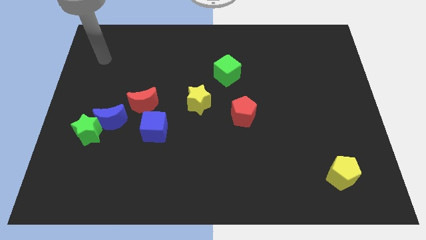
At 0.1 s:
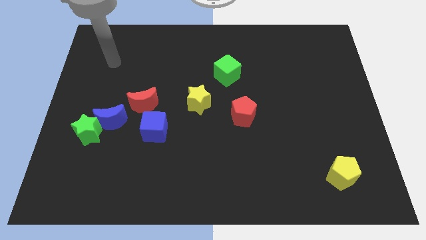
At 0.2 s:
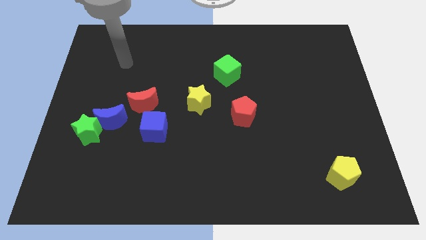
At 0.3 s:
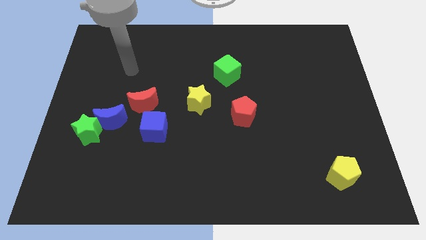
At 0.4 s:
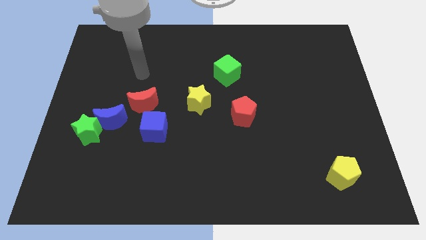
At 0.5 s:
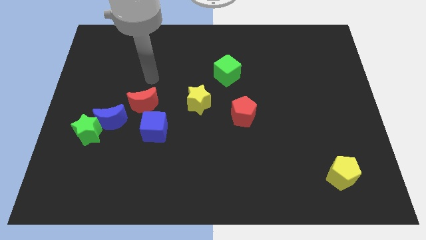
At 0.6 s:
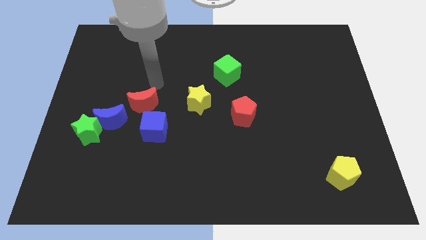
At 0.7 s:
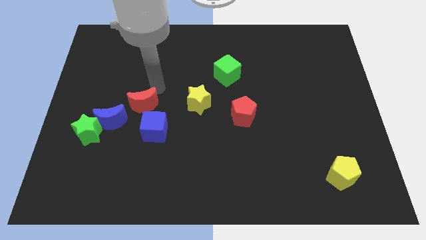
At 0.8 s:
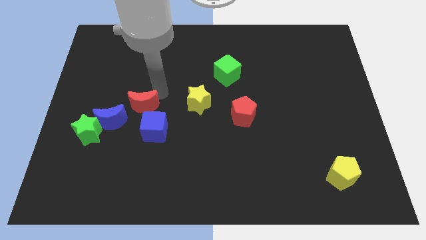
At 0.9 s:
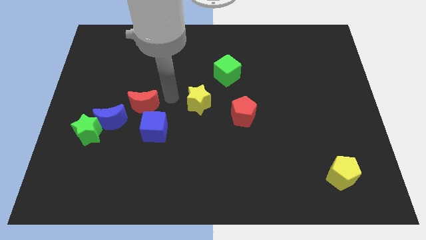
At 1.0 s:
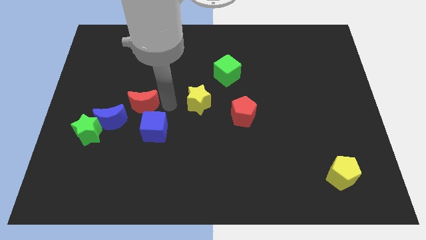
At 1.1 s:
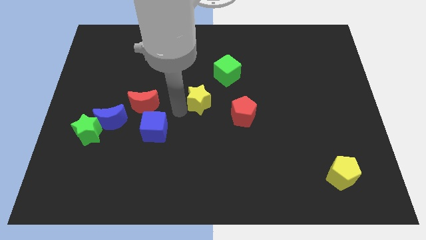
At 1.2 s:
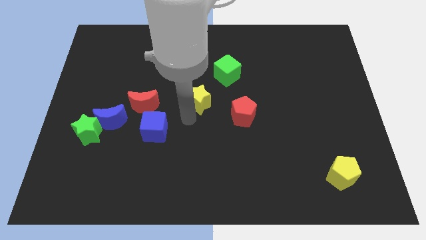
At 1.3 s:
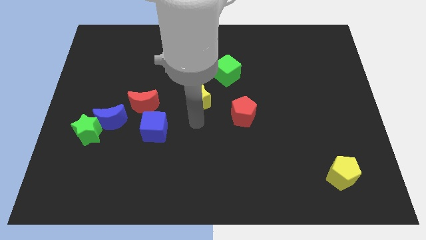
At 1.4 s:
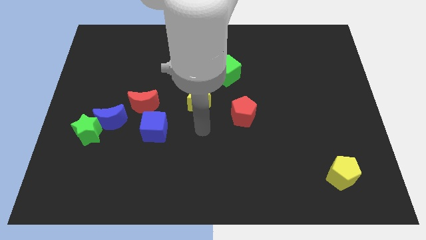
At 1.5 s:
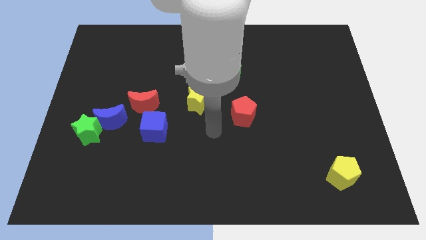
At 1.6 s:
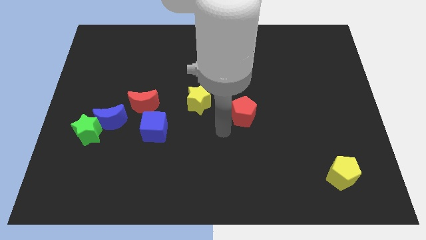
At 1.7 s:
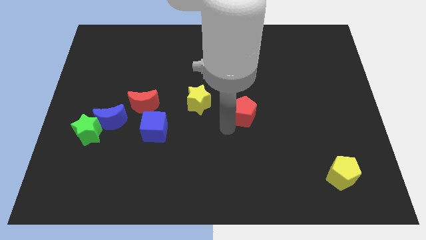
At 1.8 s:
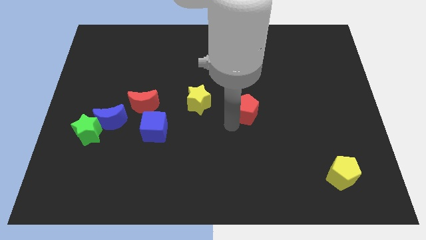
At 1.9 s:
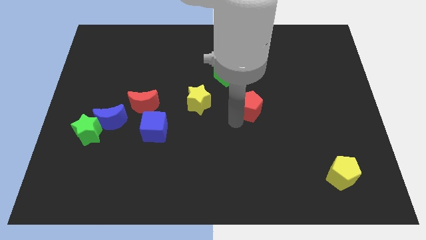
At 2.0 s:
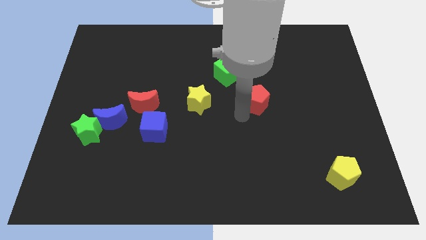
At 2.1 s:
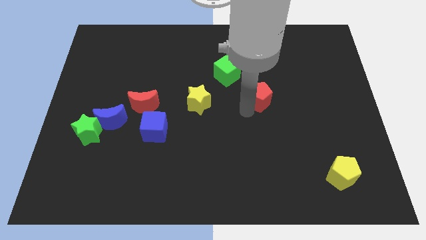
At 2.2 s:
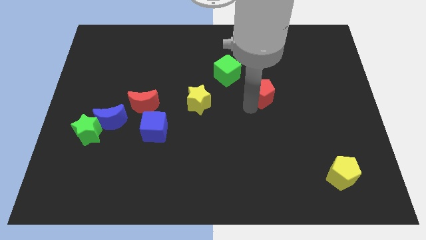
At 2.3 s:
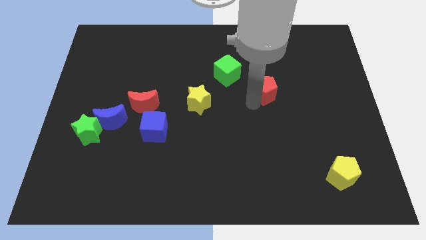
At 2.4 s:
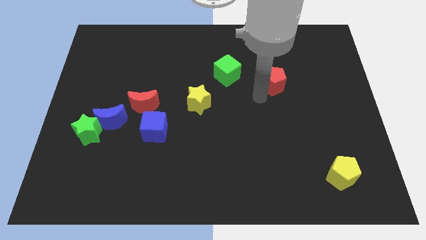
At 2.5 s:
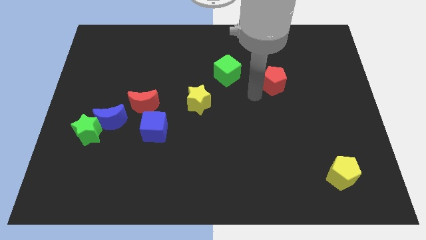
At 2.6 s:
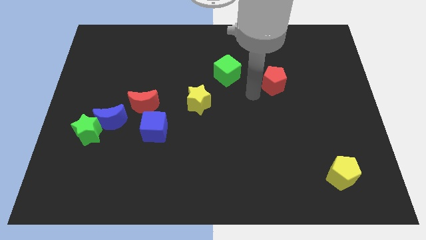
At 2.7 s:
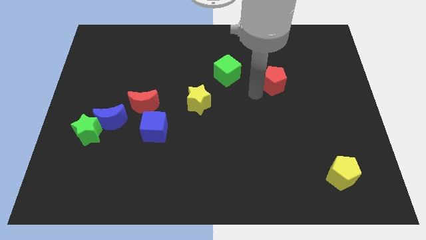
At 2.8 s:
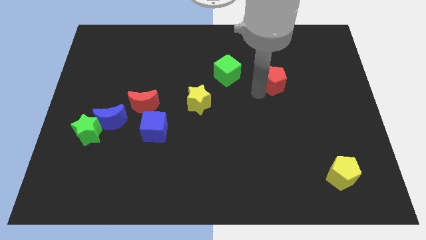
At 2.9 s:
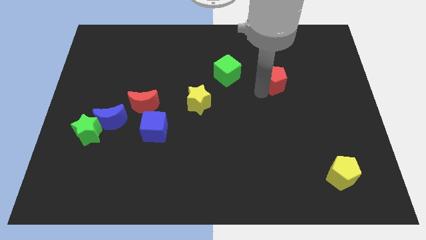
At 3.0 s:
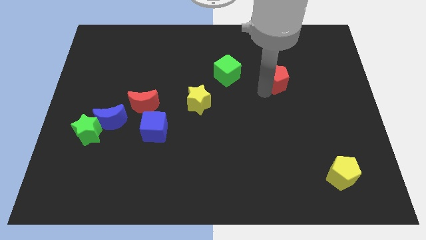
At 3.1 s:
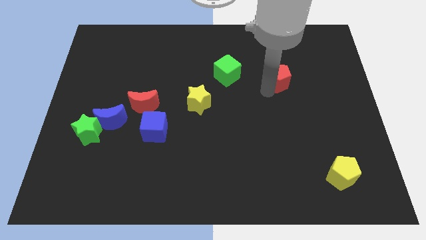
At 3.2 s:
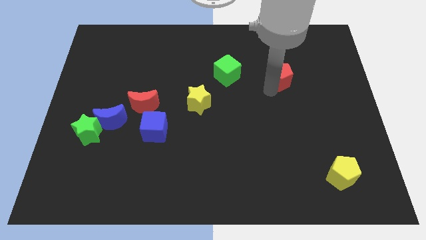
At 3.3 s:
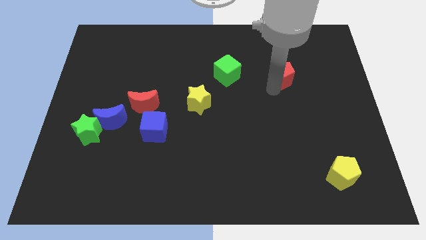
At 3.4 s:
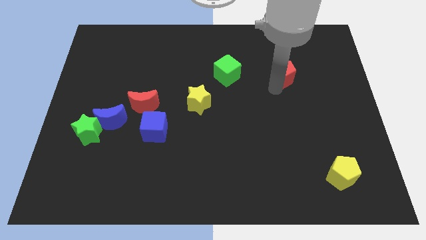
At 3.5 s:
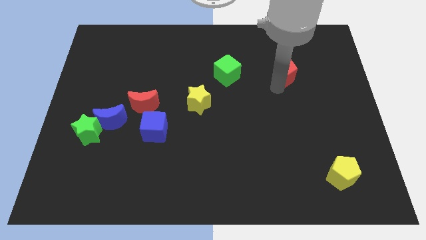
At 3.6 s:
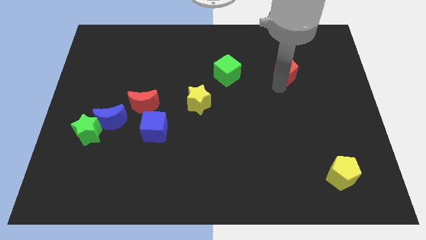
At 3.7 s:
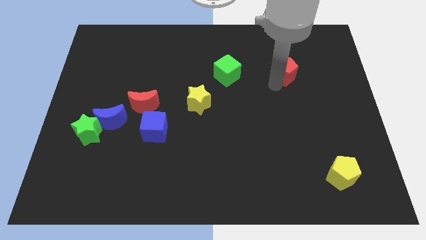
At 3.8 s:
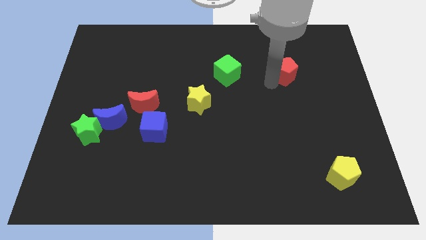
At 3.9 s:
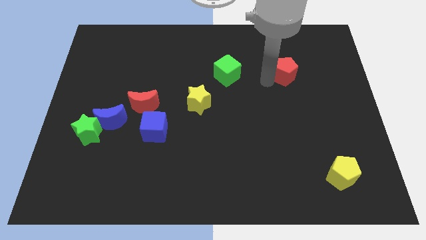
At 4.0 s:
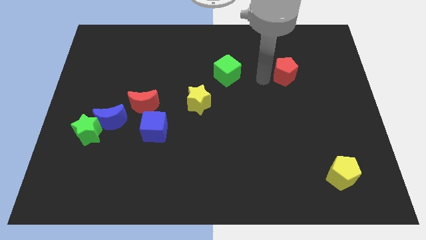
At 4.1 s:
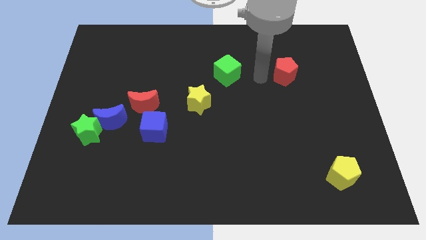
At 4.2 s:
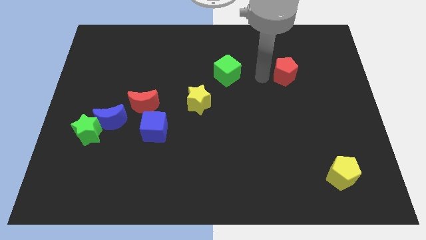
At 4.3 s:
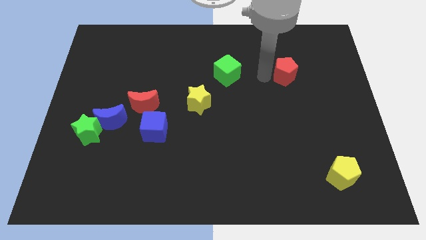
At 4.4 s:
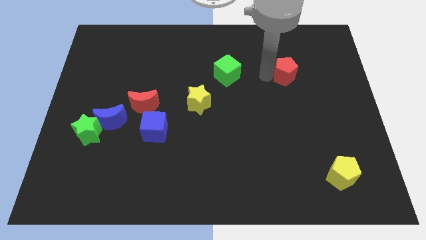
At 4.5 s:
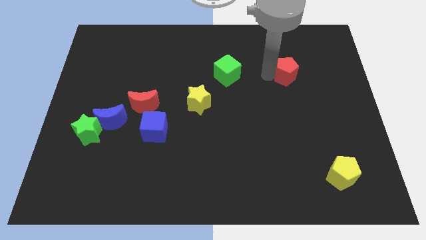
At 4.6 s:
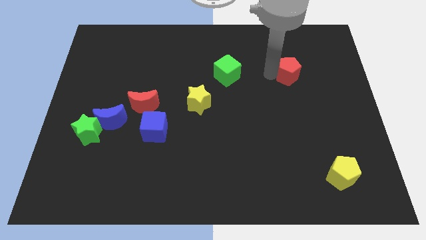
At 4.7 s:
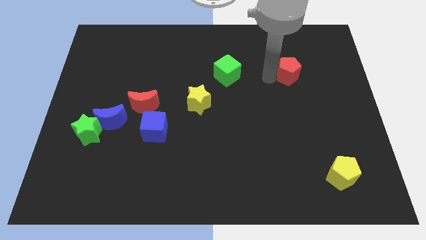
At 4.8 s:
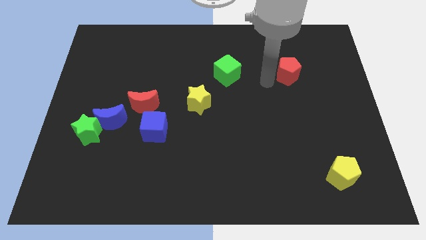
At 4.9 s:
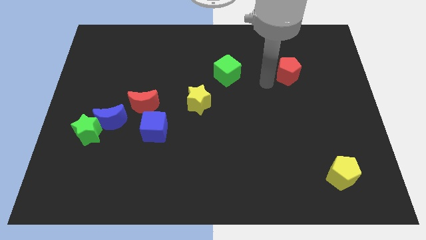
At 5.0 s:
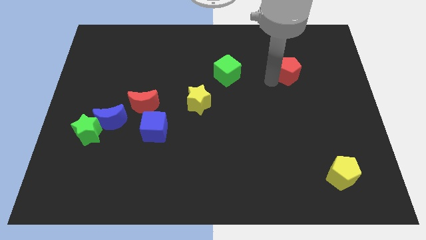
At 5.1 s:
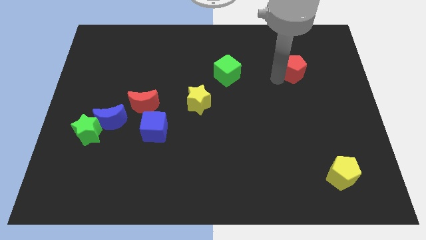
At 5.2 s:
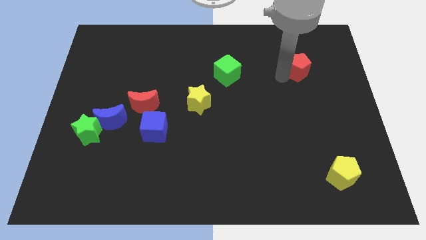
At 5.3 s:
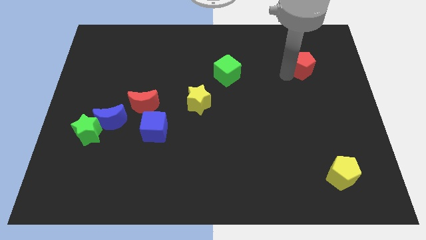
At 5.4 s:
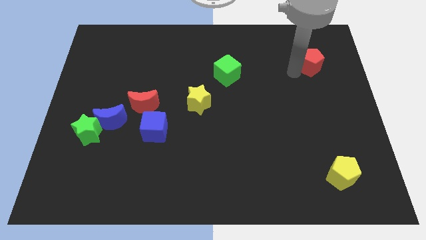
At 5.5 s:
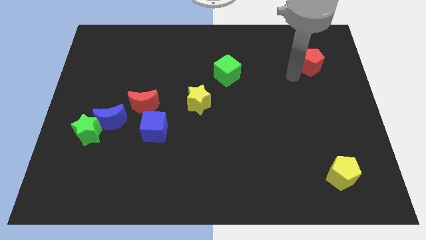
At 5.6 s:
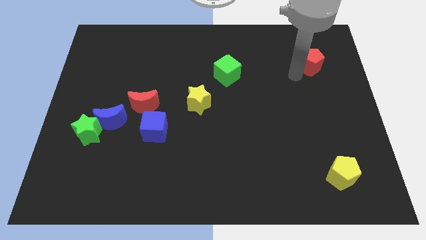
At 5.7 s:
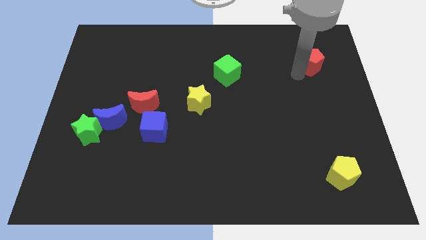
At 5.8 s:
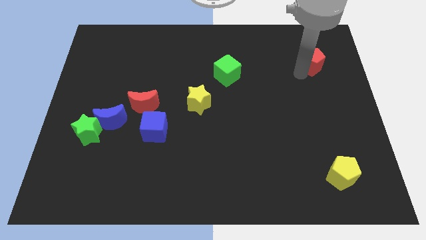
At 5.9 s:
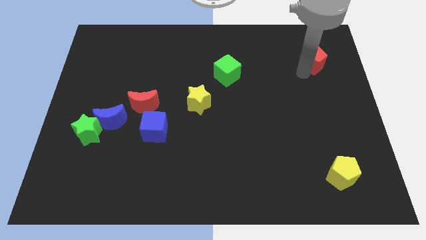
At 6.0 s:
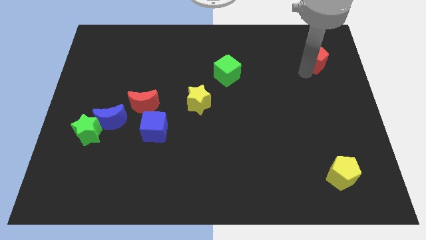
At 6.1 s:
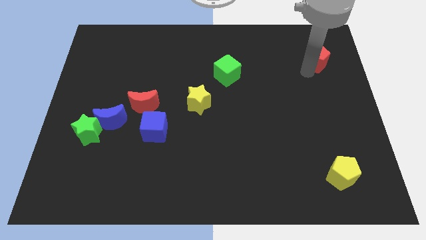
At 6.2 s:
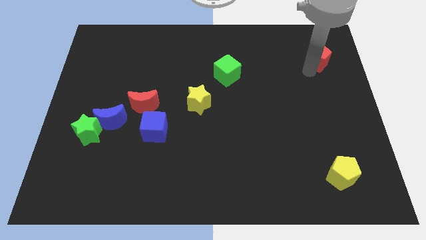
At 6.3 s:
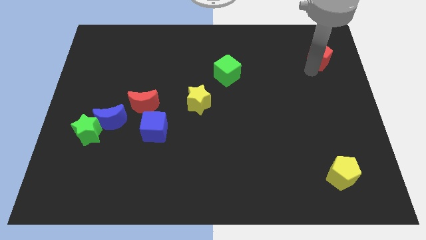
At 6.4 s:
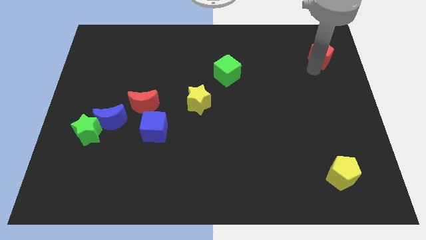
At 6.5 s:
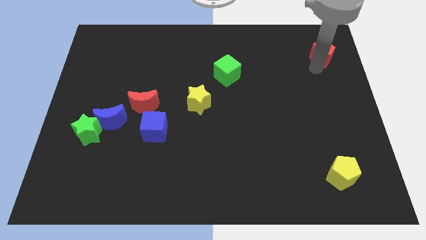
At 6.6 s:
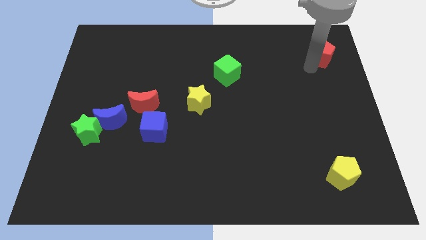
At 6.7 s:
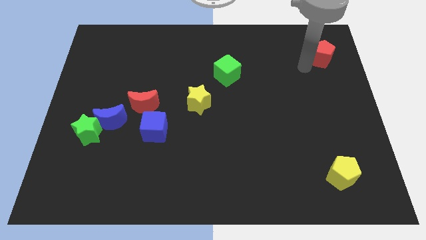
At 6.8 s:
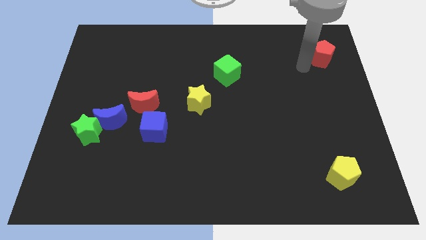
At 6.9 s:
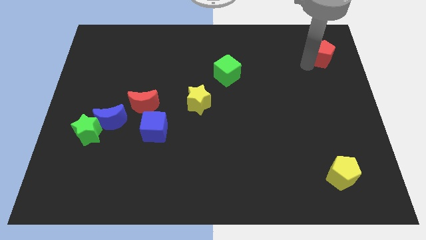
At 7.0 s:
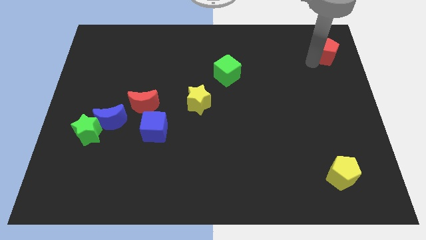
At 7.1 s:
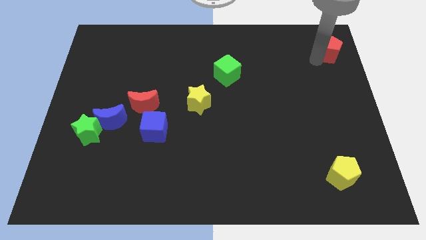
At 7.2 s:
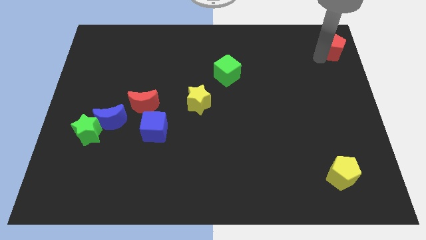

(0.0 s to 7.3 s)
move the red pentagon to the top right
